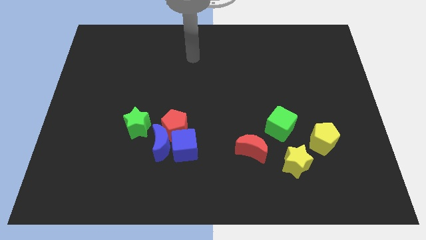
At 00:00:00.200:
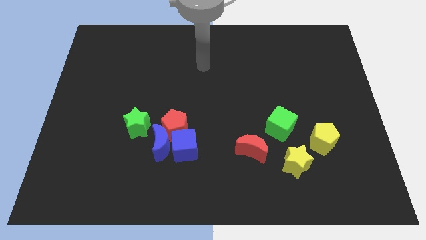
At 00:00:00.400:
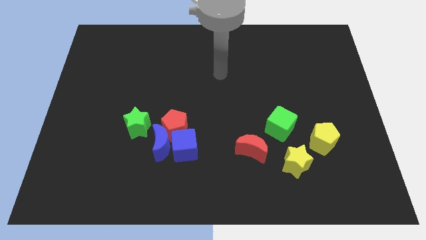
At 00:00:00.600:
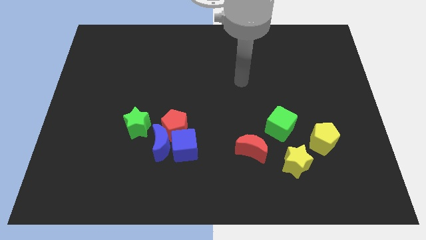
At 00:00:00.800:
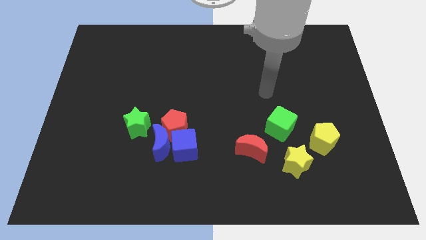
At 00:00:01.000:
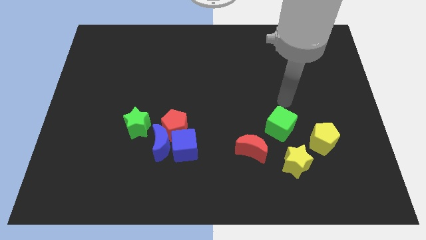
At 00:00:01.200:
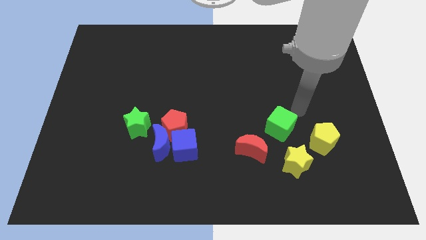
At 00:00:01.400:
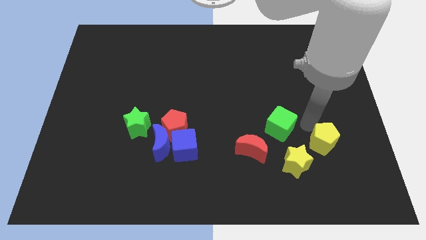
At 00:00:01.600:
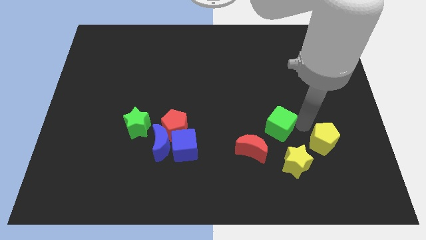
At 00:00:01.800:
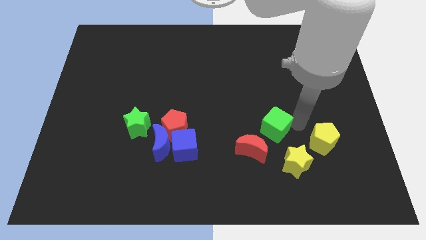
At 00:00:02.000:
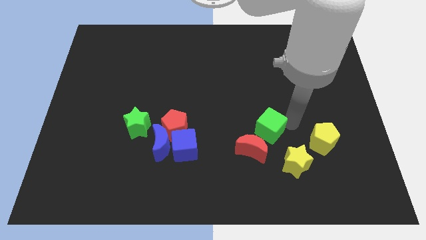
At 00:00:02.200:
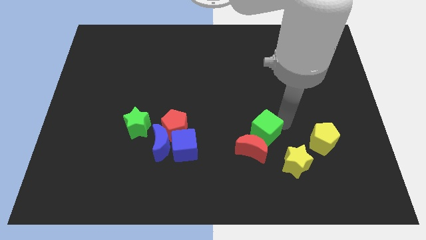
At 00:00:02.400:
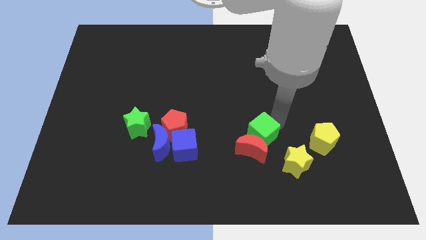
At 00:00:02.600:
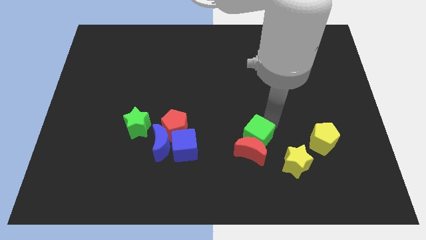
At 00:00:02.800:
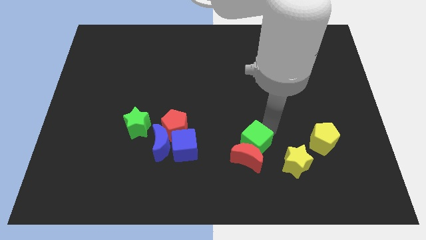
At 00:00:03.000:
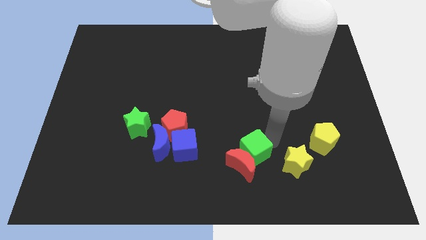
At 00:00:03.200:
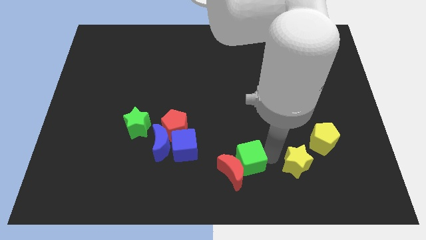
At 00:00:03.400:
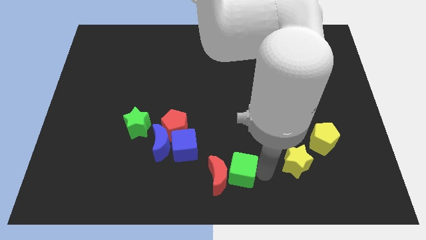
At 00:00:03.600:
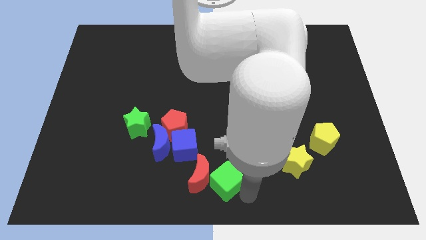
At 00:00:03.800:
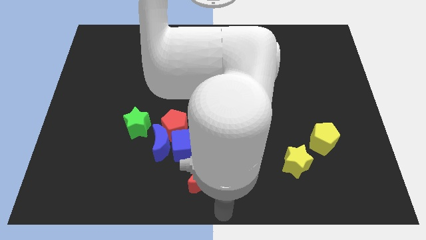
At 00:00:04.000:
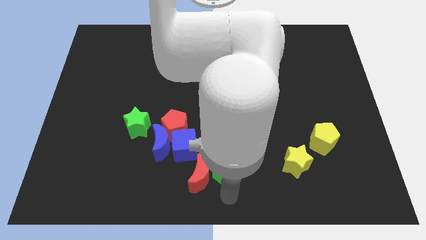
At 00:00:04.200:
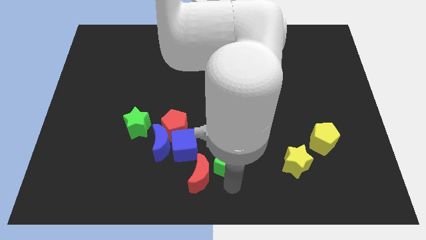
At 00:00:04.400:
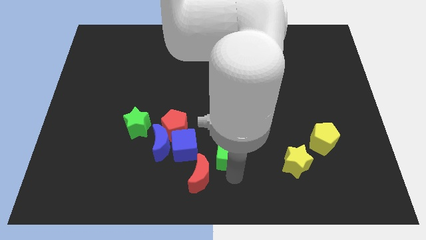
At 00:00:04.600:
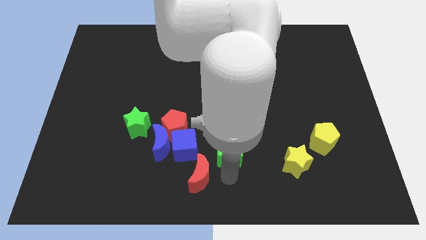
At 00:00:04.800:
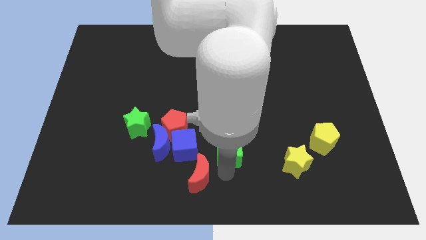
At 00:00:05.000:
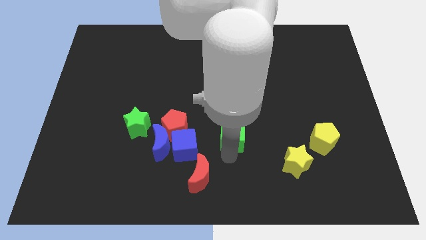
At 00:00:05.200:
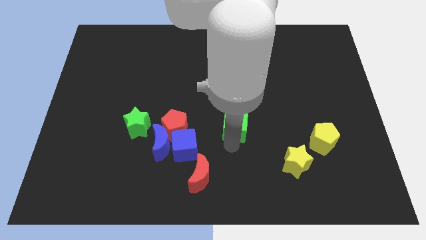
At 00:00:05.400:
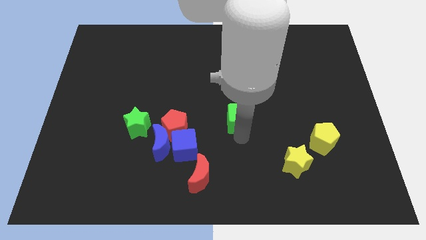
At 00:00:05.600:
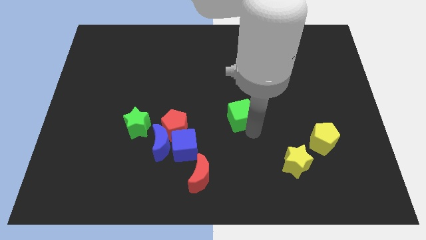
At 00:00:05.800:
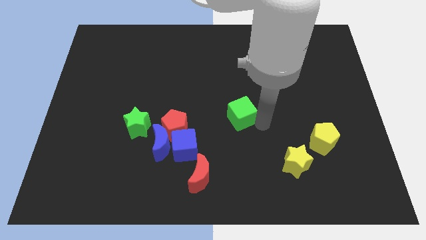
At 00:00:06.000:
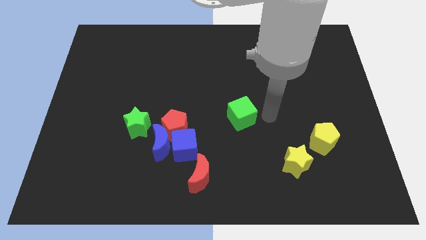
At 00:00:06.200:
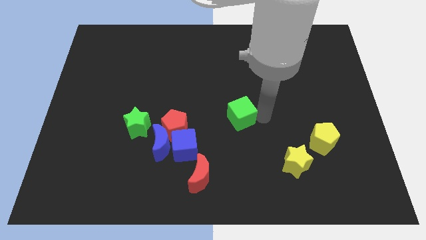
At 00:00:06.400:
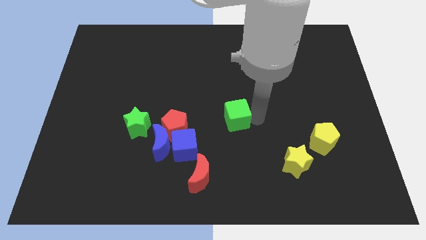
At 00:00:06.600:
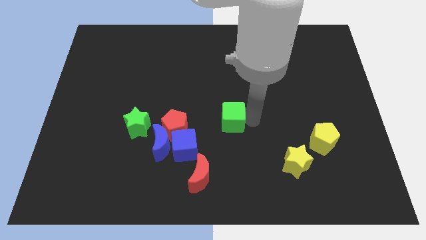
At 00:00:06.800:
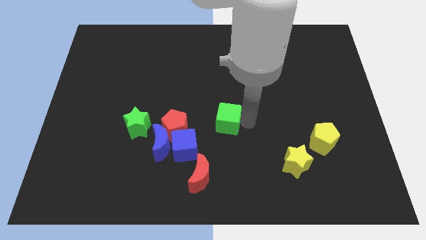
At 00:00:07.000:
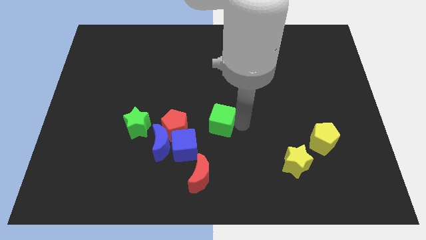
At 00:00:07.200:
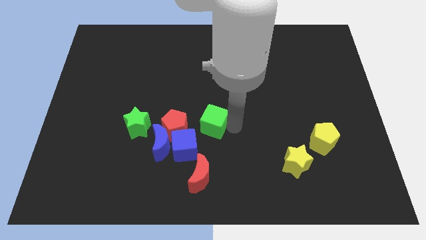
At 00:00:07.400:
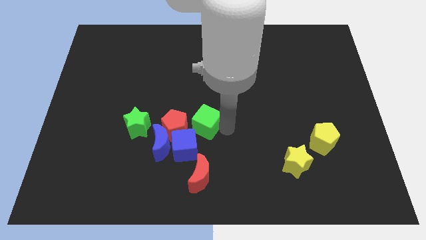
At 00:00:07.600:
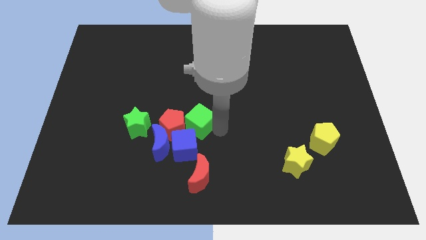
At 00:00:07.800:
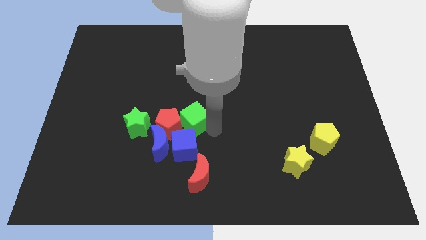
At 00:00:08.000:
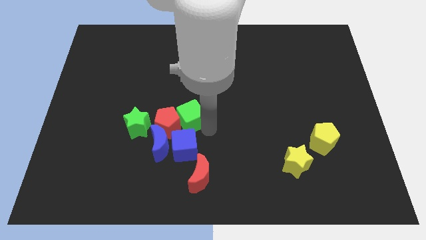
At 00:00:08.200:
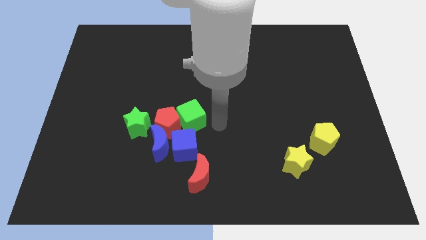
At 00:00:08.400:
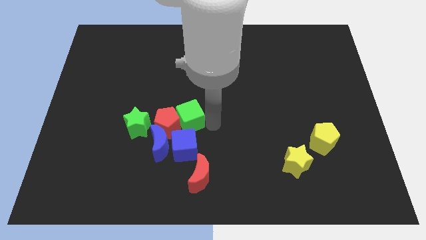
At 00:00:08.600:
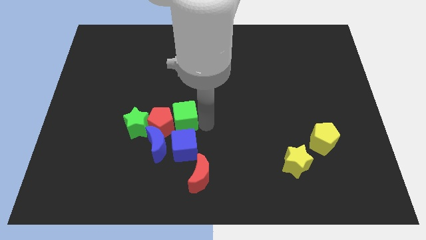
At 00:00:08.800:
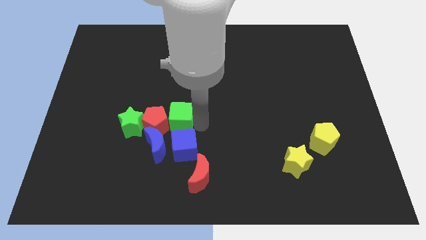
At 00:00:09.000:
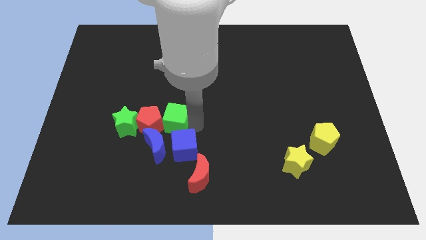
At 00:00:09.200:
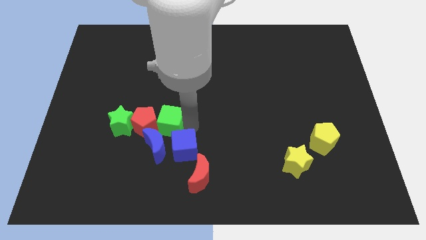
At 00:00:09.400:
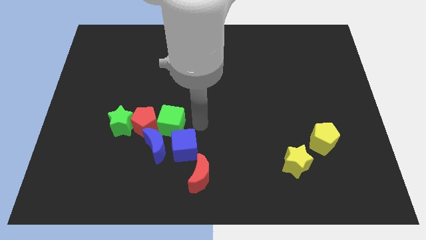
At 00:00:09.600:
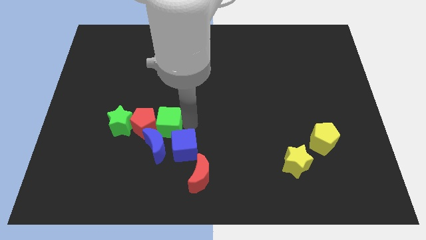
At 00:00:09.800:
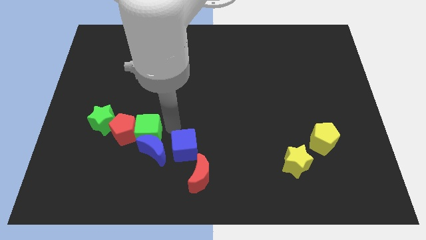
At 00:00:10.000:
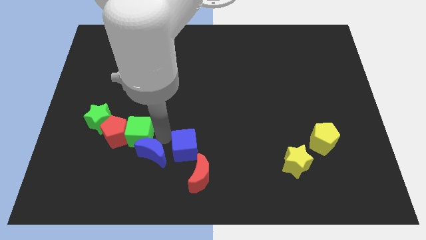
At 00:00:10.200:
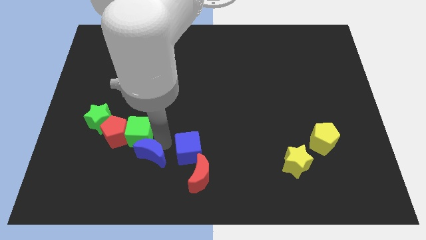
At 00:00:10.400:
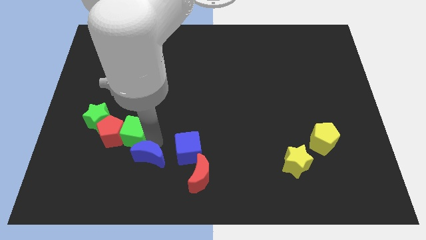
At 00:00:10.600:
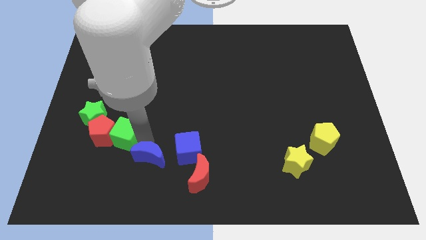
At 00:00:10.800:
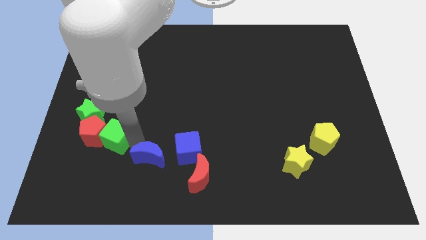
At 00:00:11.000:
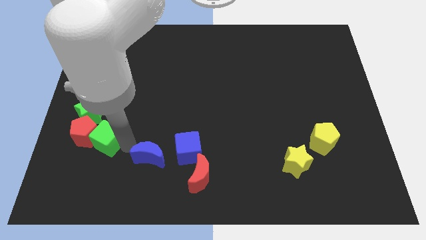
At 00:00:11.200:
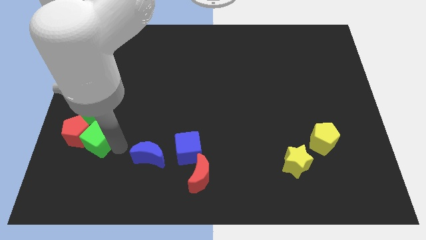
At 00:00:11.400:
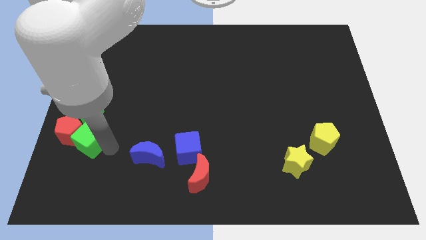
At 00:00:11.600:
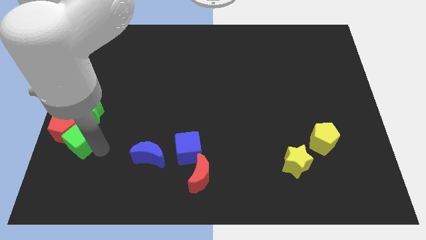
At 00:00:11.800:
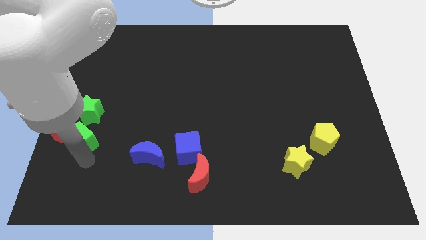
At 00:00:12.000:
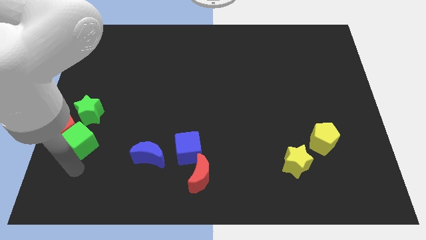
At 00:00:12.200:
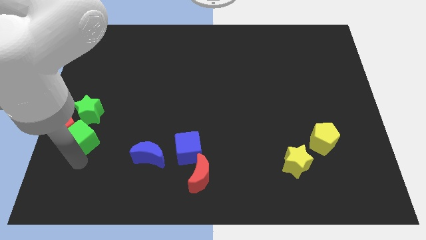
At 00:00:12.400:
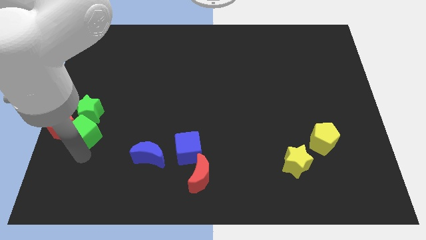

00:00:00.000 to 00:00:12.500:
push the green cube next to the green star
